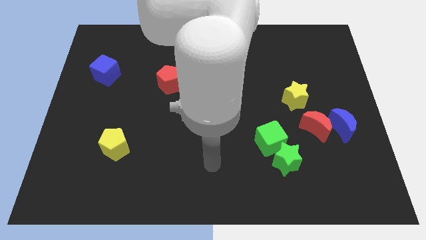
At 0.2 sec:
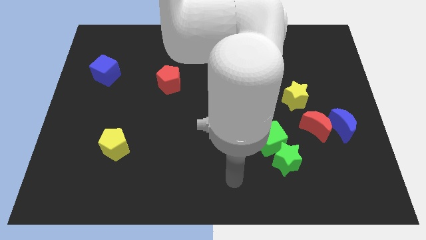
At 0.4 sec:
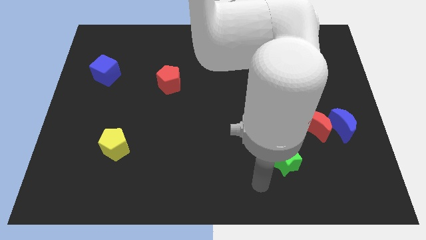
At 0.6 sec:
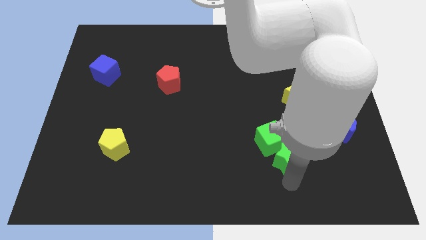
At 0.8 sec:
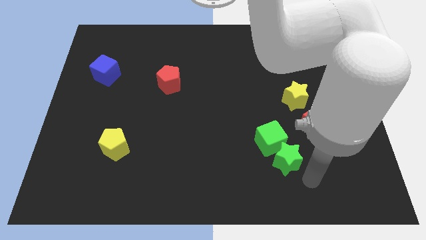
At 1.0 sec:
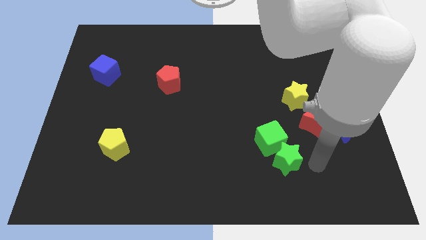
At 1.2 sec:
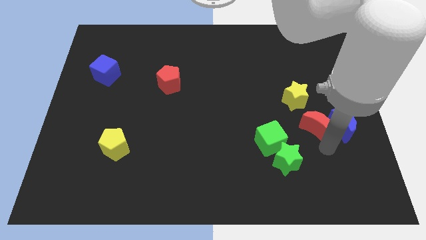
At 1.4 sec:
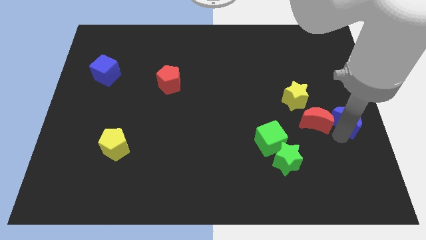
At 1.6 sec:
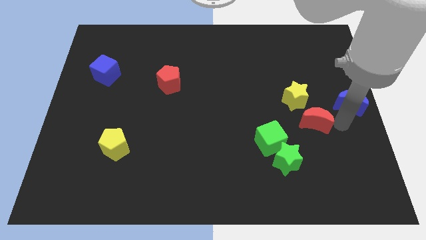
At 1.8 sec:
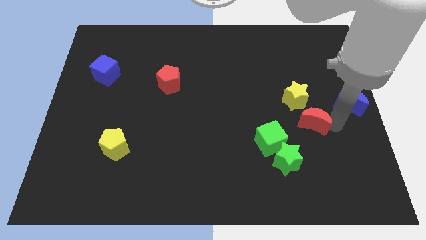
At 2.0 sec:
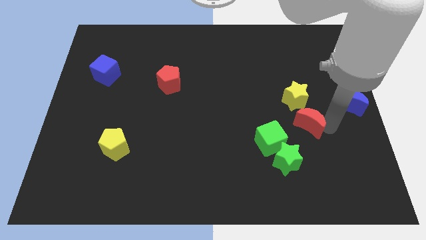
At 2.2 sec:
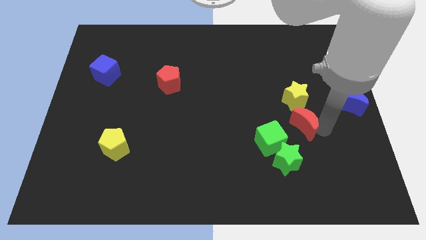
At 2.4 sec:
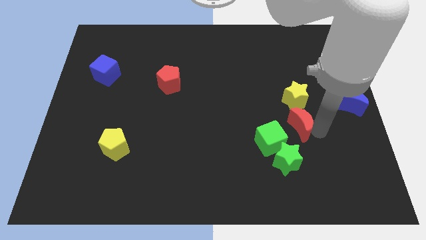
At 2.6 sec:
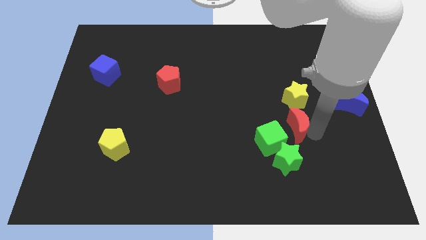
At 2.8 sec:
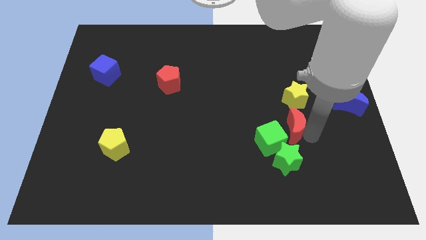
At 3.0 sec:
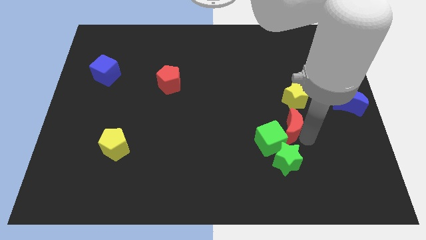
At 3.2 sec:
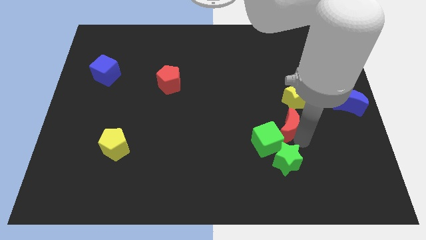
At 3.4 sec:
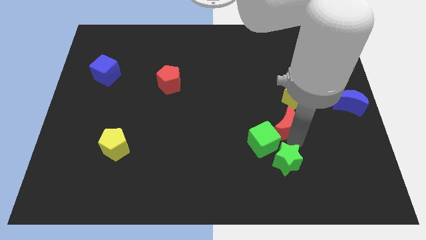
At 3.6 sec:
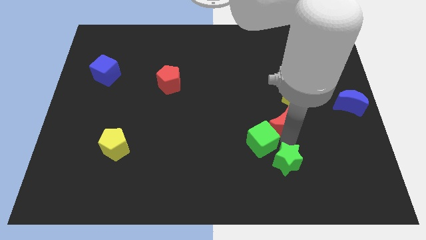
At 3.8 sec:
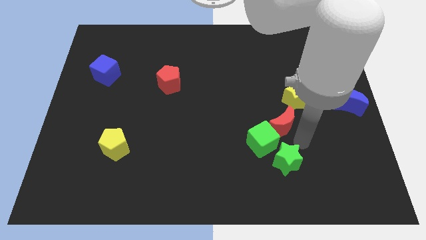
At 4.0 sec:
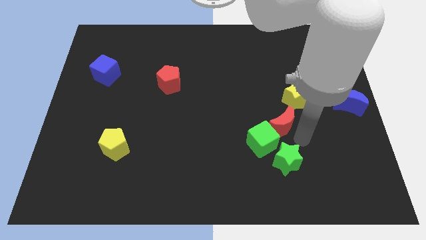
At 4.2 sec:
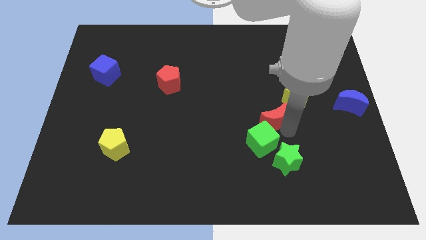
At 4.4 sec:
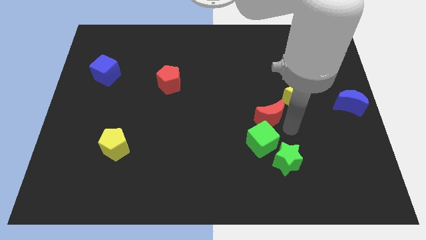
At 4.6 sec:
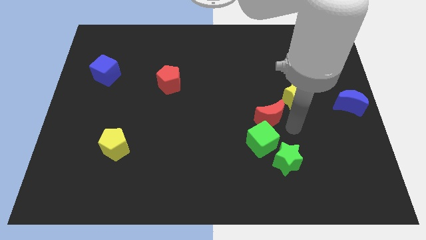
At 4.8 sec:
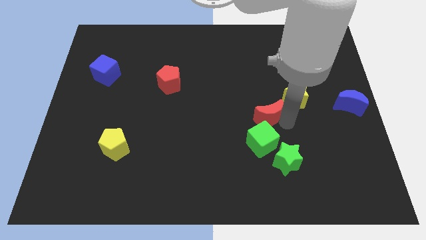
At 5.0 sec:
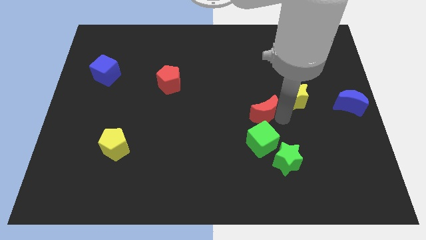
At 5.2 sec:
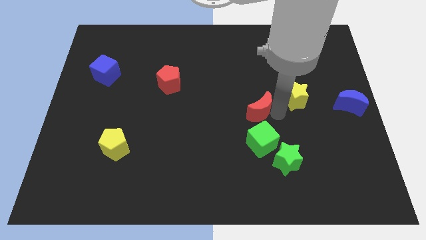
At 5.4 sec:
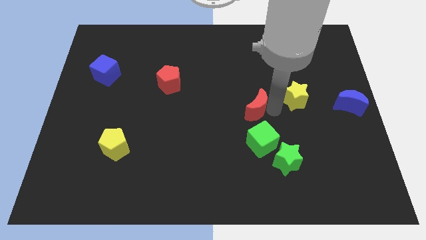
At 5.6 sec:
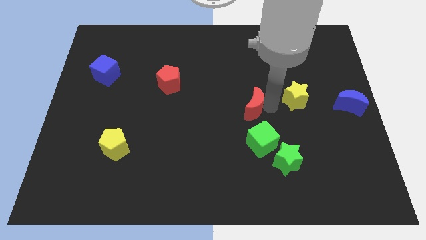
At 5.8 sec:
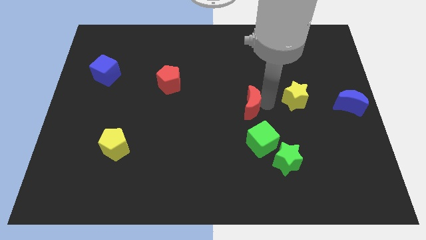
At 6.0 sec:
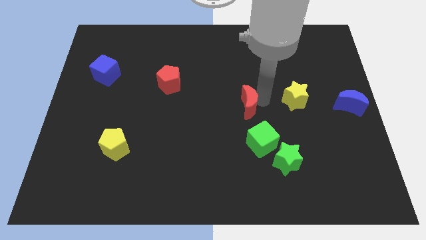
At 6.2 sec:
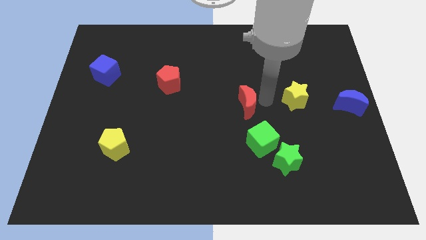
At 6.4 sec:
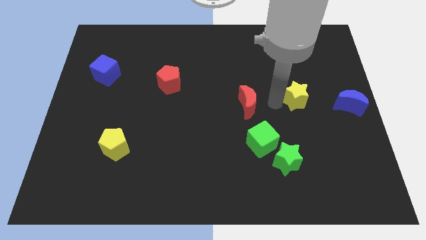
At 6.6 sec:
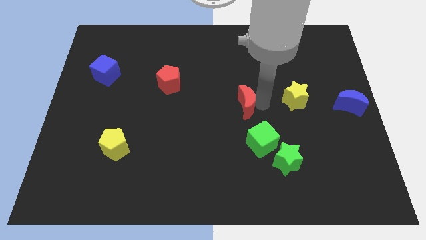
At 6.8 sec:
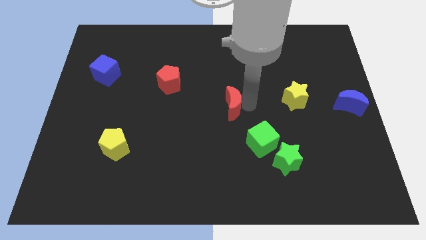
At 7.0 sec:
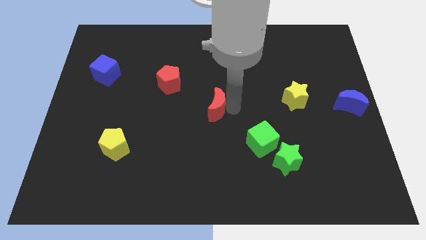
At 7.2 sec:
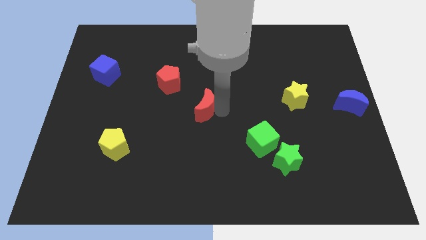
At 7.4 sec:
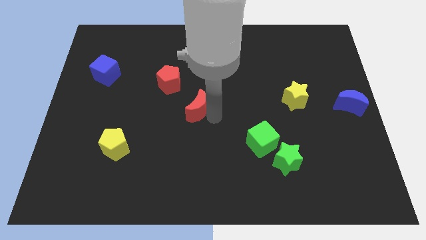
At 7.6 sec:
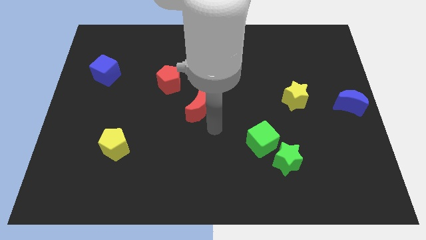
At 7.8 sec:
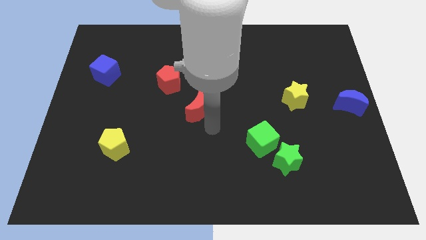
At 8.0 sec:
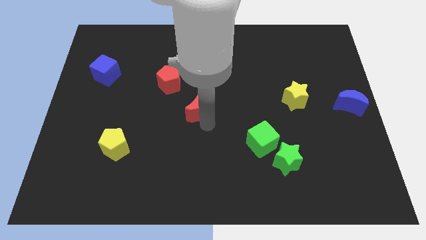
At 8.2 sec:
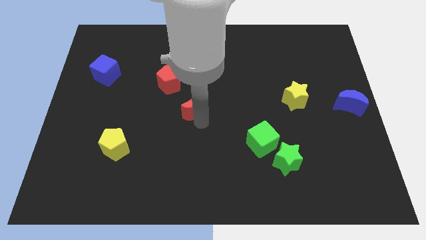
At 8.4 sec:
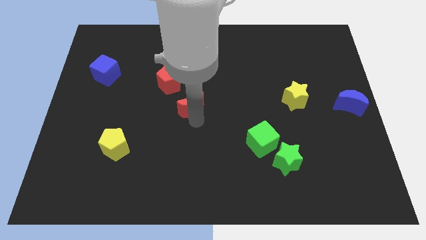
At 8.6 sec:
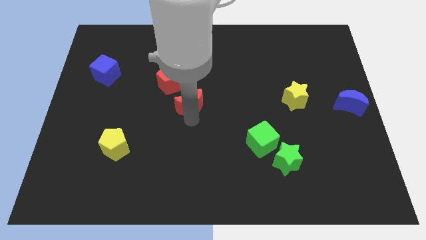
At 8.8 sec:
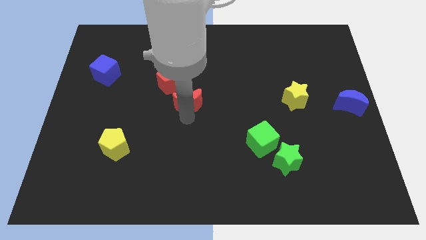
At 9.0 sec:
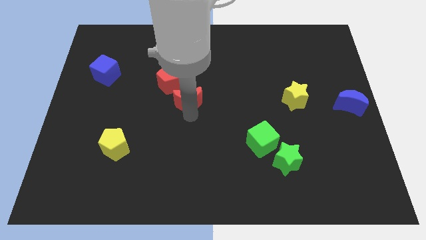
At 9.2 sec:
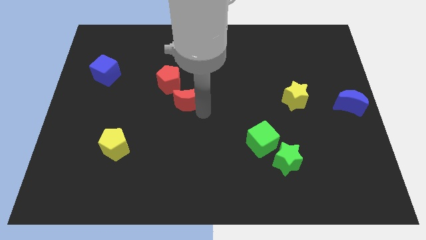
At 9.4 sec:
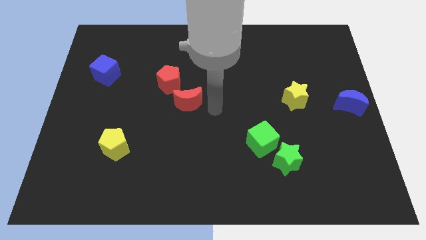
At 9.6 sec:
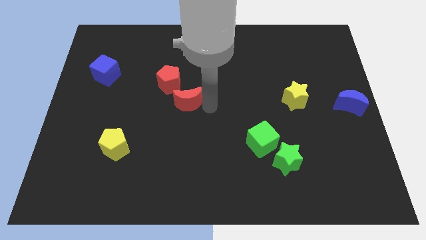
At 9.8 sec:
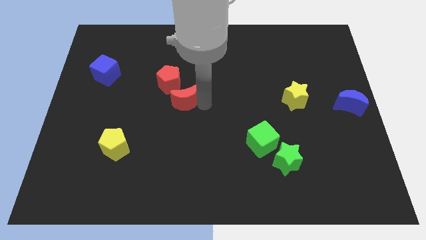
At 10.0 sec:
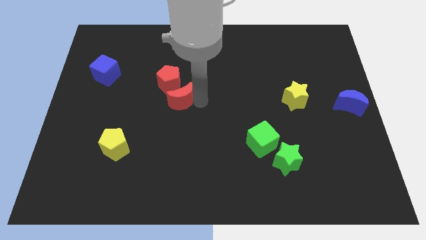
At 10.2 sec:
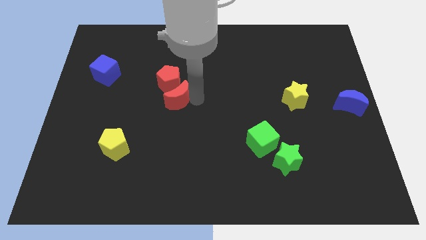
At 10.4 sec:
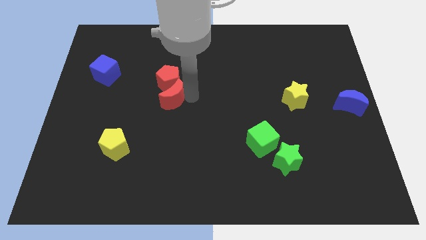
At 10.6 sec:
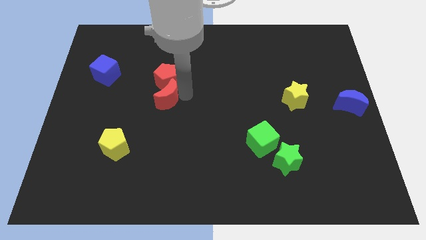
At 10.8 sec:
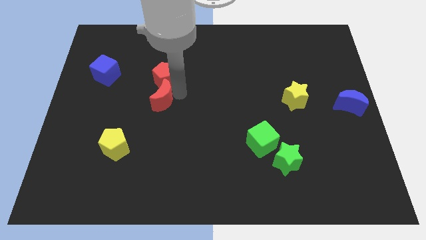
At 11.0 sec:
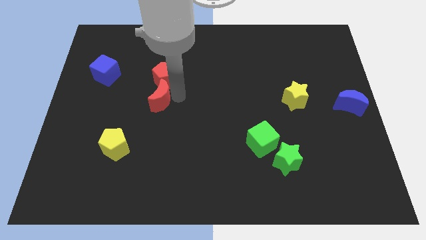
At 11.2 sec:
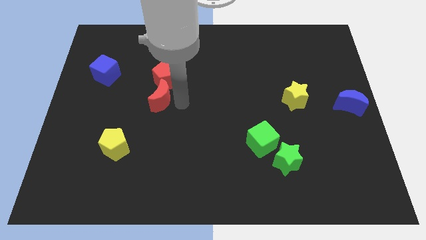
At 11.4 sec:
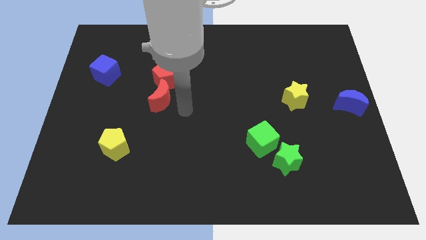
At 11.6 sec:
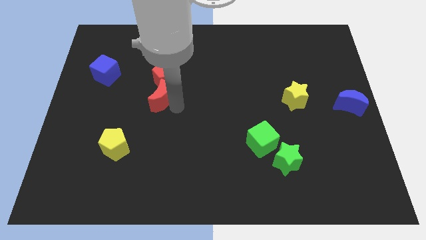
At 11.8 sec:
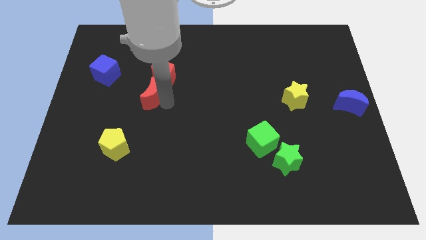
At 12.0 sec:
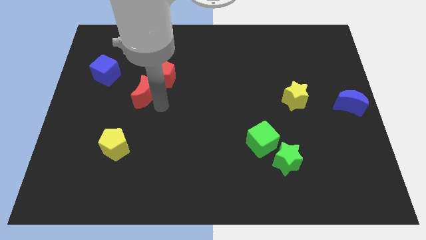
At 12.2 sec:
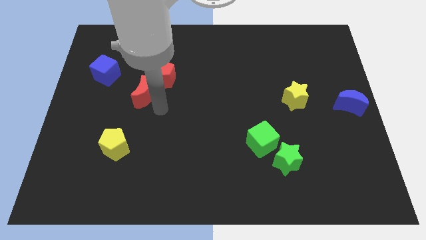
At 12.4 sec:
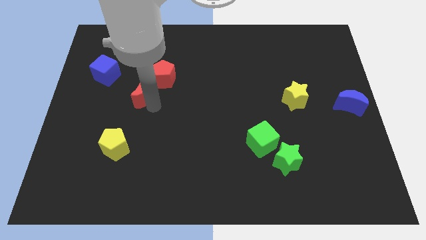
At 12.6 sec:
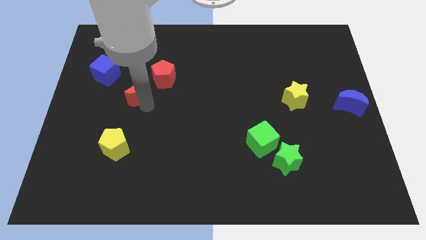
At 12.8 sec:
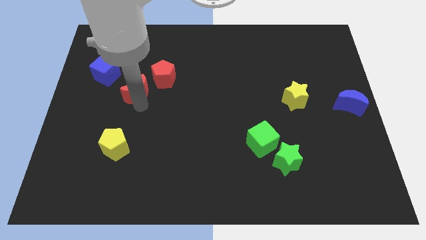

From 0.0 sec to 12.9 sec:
slide the red moon just left of the red pentagon
